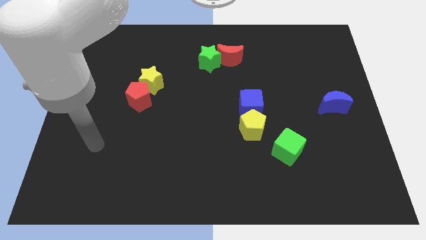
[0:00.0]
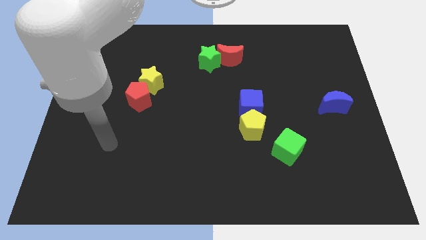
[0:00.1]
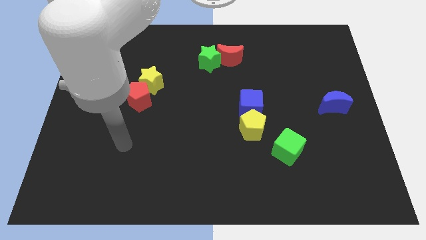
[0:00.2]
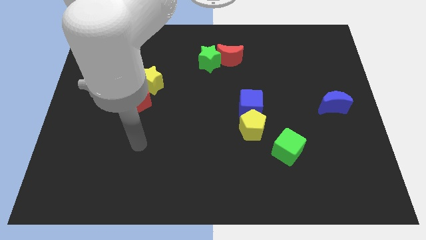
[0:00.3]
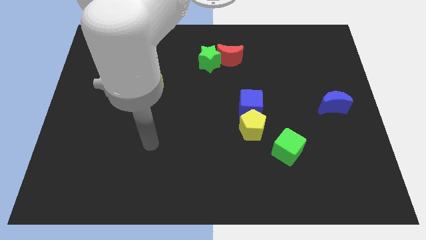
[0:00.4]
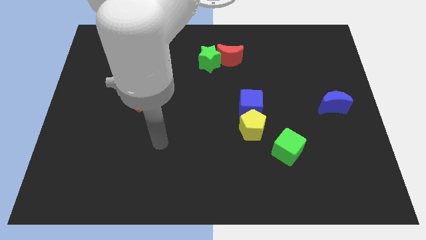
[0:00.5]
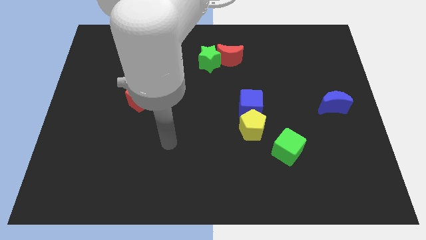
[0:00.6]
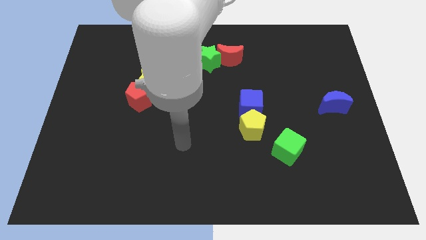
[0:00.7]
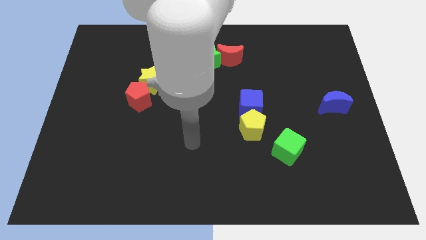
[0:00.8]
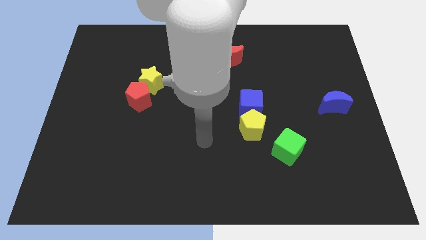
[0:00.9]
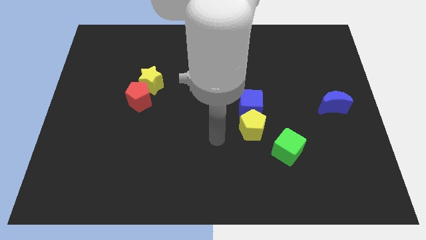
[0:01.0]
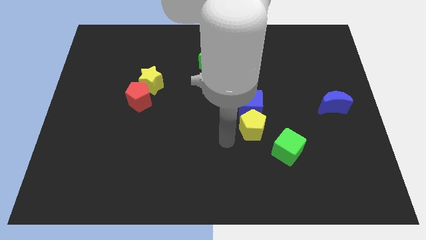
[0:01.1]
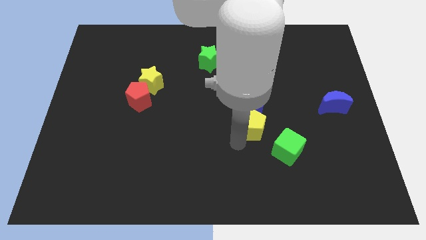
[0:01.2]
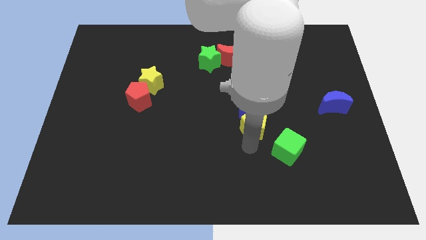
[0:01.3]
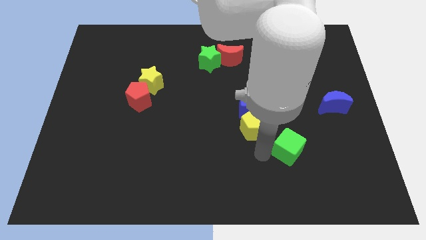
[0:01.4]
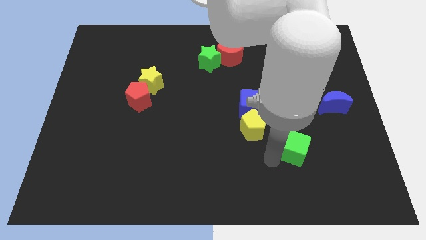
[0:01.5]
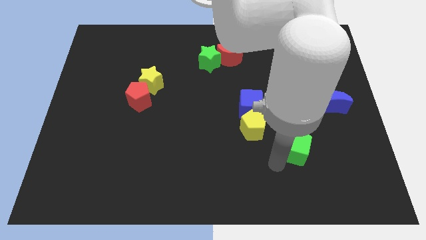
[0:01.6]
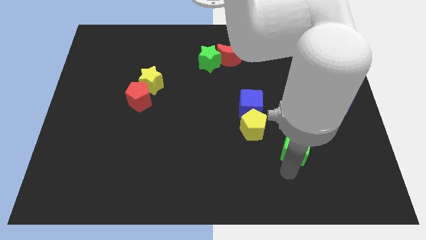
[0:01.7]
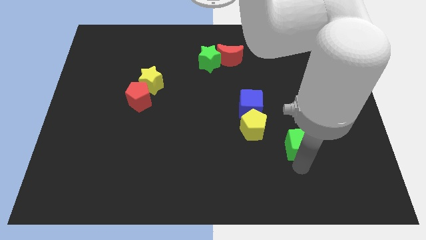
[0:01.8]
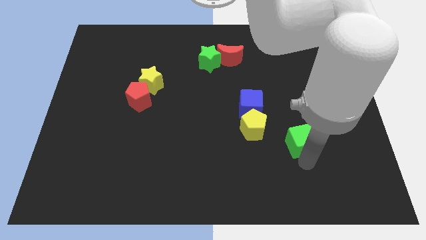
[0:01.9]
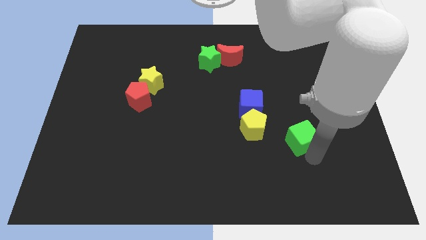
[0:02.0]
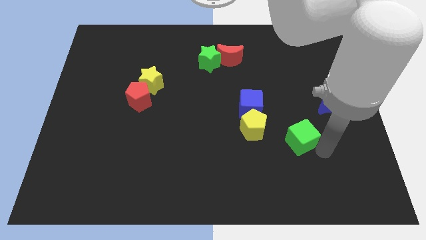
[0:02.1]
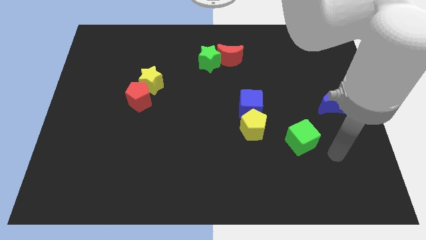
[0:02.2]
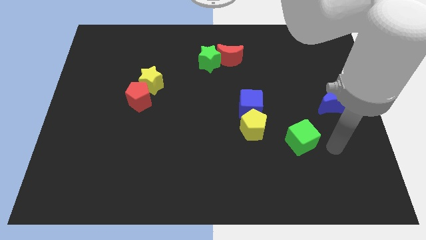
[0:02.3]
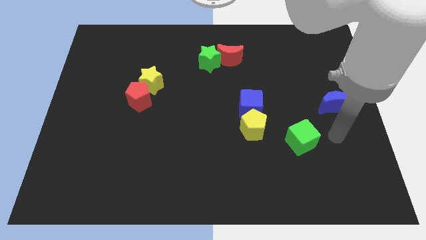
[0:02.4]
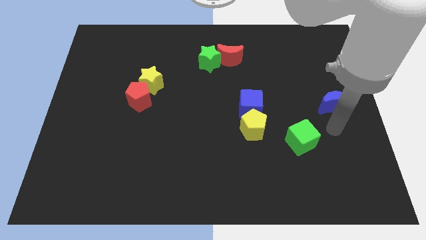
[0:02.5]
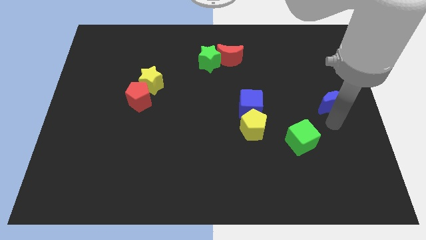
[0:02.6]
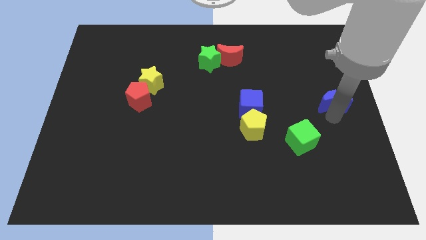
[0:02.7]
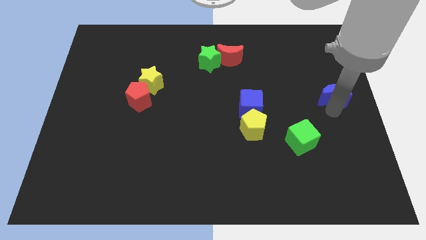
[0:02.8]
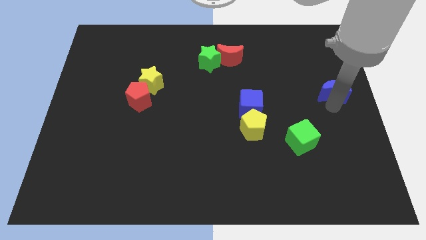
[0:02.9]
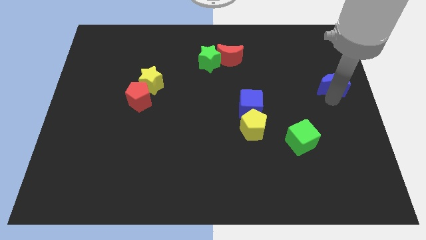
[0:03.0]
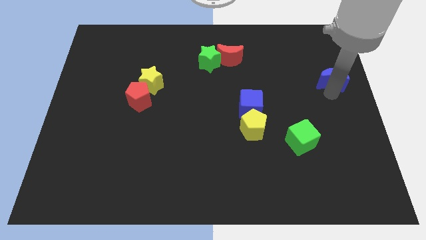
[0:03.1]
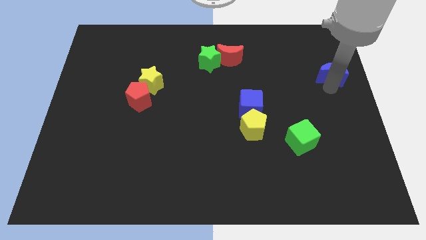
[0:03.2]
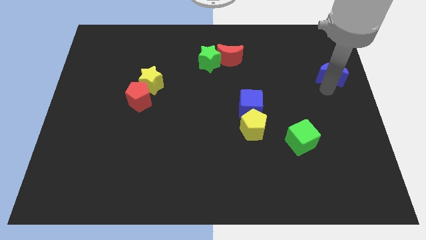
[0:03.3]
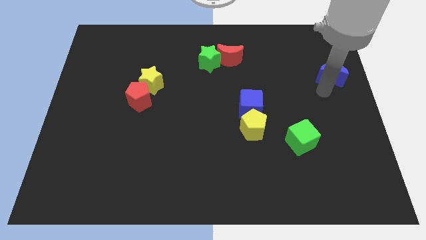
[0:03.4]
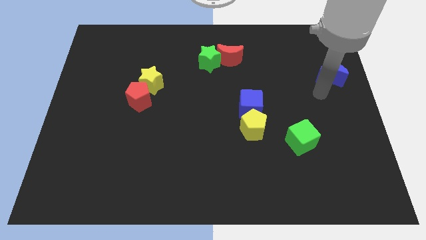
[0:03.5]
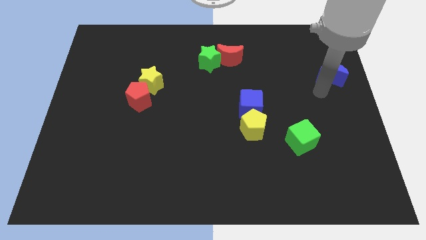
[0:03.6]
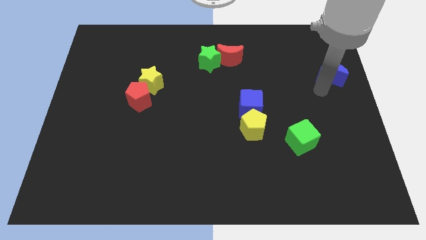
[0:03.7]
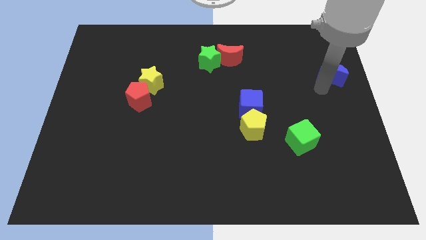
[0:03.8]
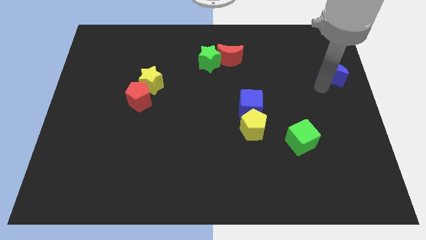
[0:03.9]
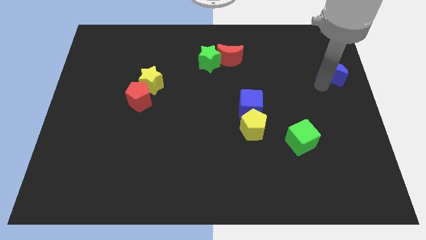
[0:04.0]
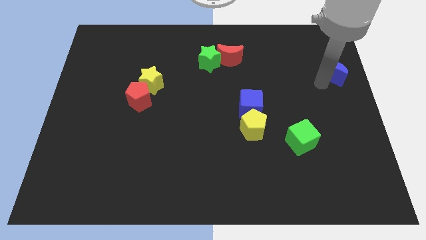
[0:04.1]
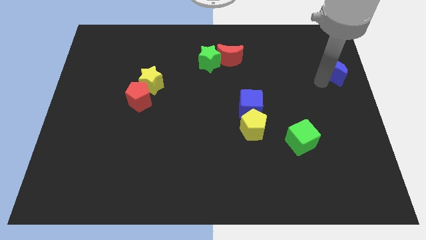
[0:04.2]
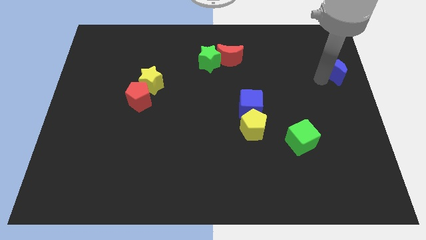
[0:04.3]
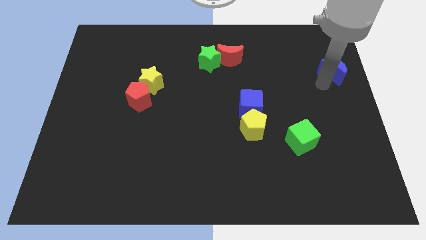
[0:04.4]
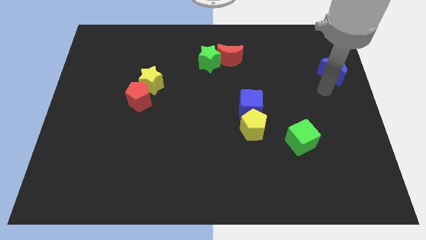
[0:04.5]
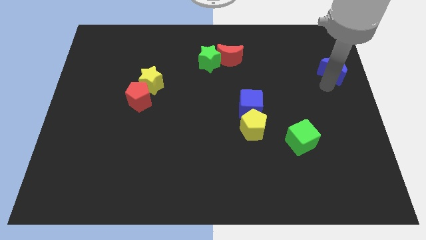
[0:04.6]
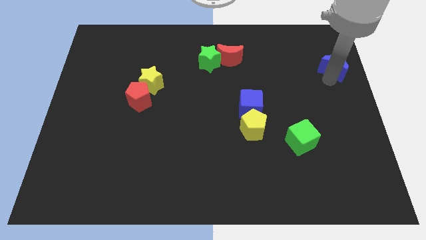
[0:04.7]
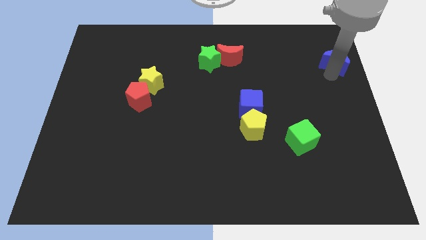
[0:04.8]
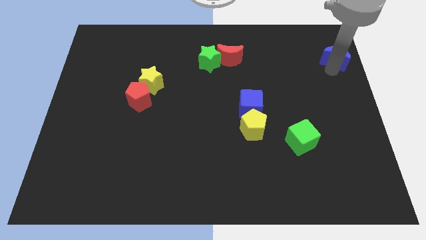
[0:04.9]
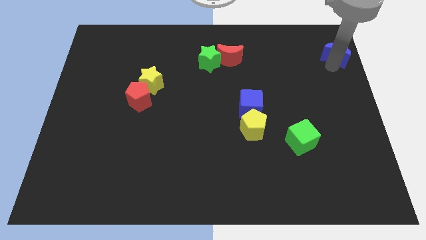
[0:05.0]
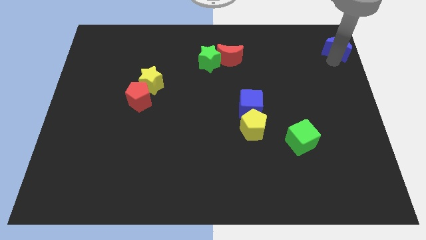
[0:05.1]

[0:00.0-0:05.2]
push the blue moon to the upper right corner

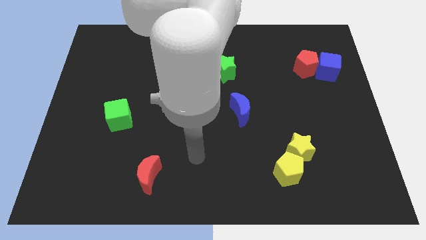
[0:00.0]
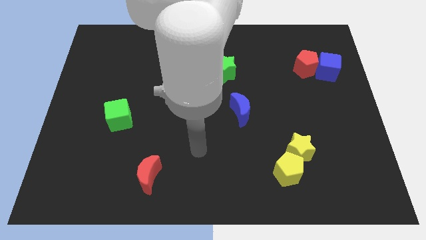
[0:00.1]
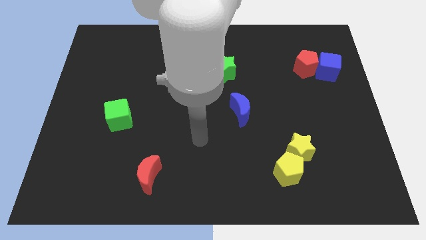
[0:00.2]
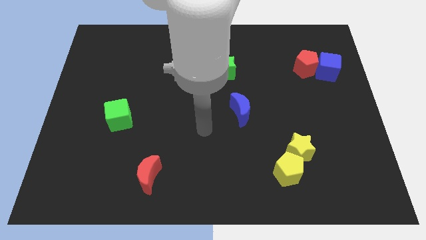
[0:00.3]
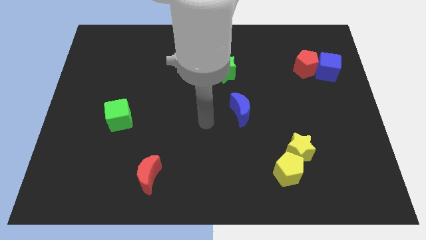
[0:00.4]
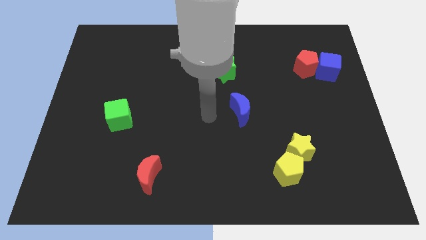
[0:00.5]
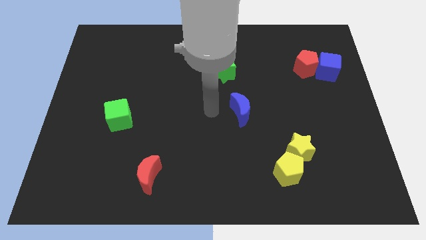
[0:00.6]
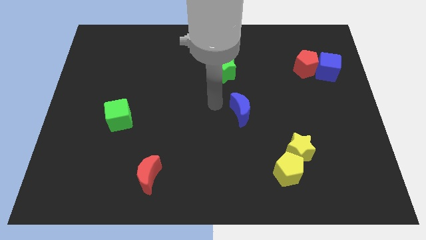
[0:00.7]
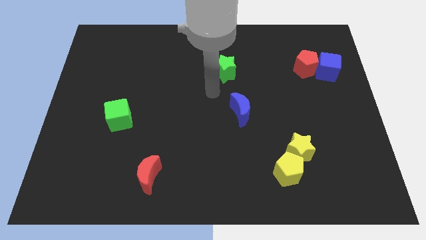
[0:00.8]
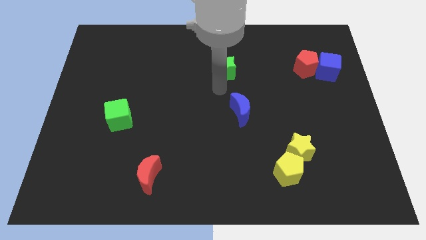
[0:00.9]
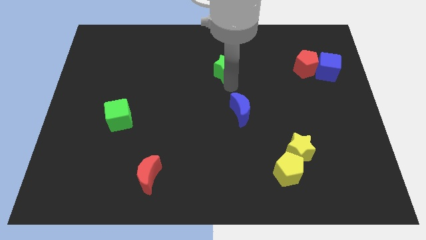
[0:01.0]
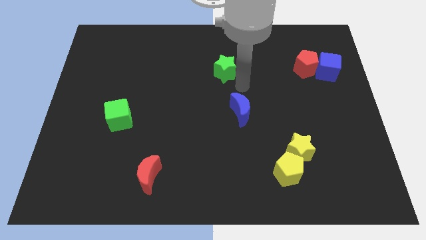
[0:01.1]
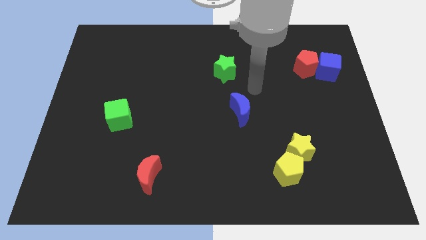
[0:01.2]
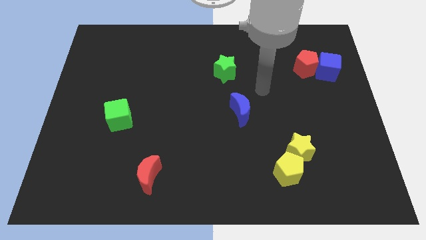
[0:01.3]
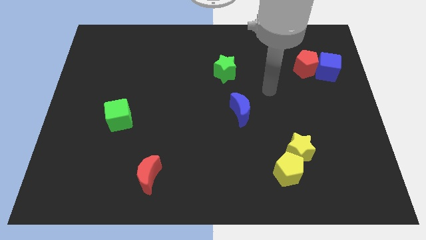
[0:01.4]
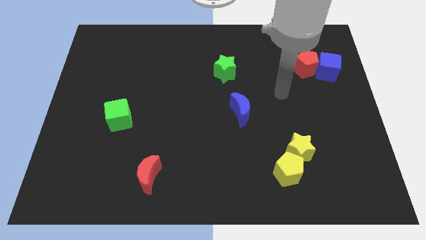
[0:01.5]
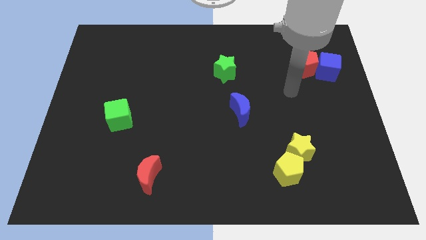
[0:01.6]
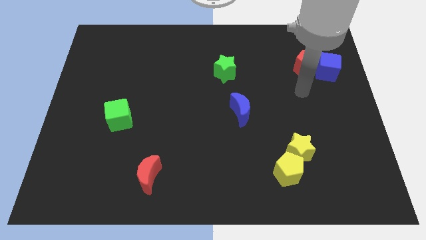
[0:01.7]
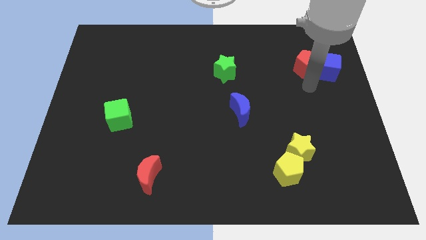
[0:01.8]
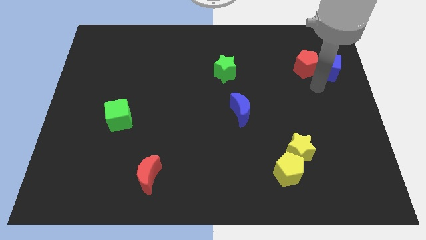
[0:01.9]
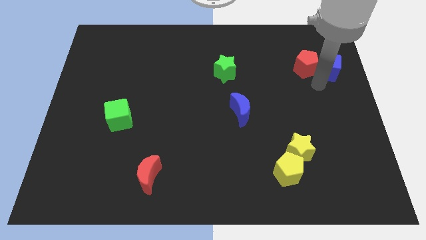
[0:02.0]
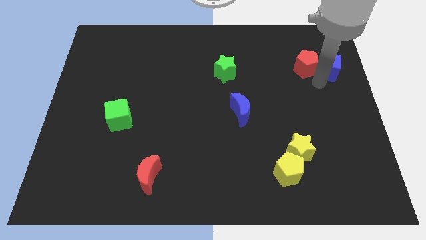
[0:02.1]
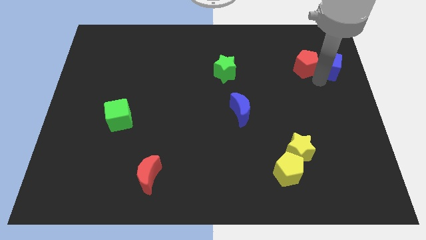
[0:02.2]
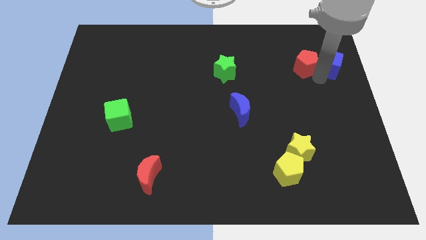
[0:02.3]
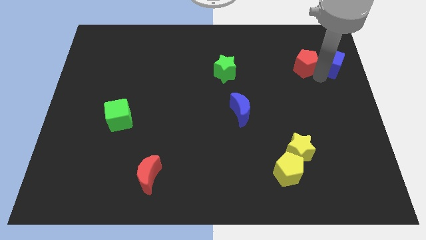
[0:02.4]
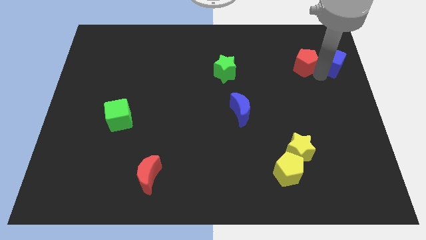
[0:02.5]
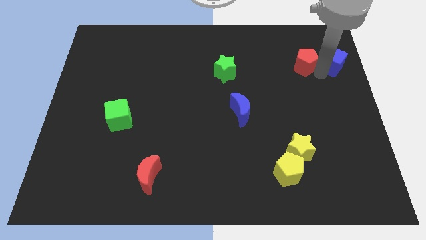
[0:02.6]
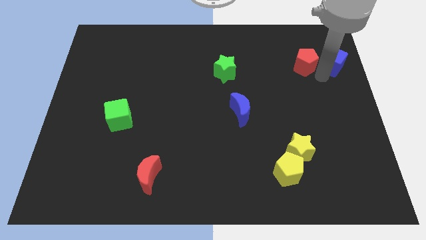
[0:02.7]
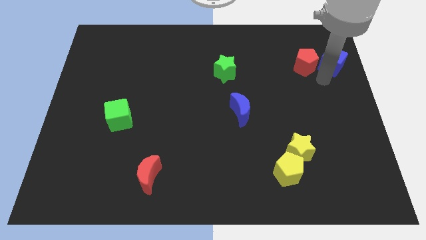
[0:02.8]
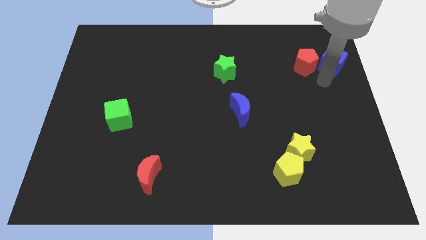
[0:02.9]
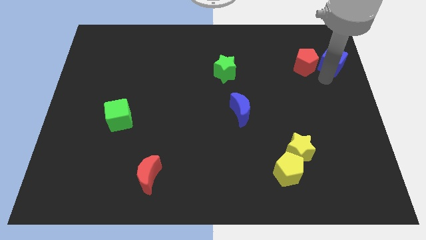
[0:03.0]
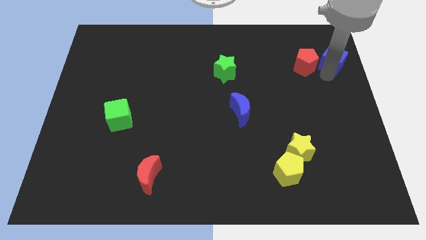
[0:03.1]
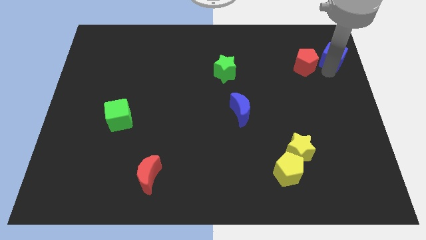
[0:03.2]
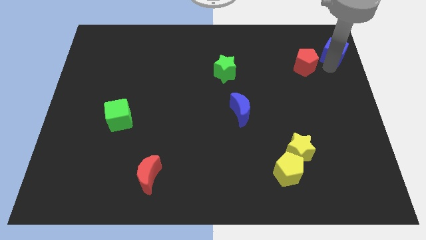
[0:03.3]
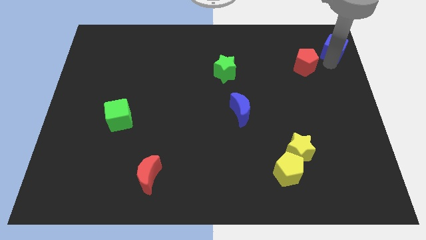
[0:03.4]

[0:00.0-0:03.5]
move the blue cube to the top right of the board
